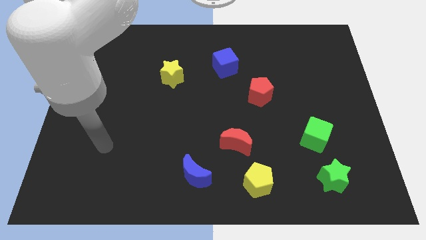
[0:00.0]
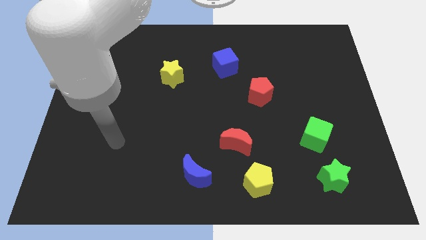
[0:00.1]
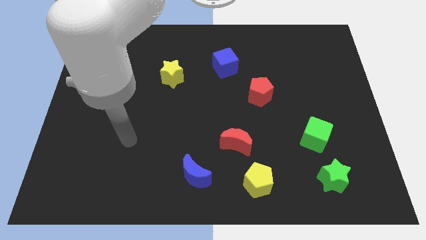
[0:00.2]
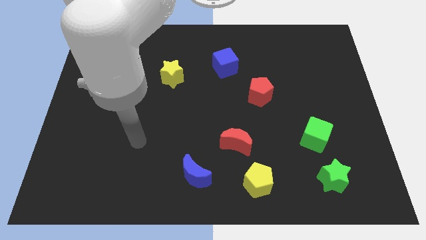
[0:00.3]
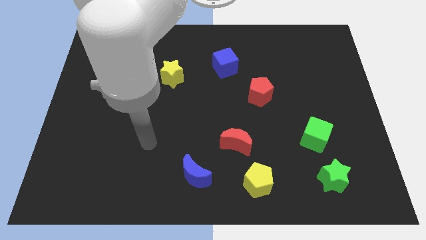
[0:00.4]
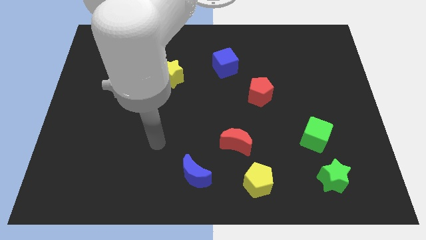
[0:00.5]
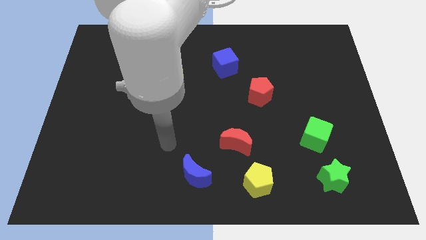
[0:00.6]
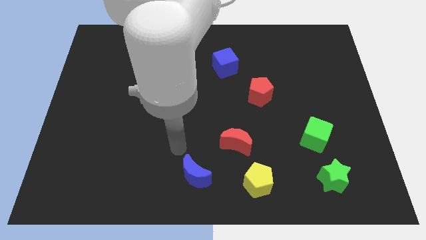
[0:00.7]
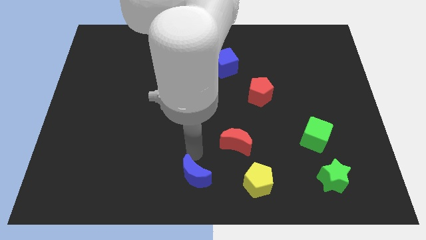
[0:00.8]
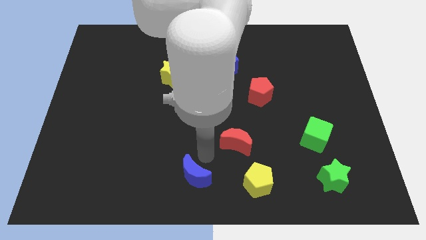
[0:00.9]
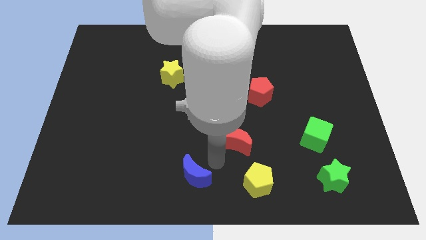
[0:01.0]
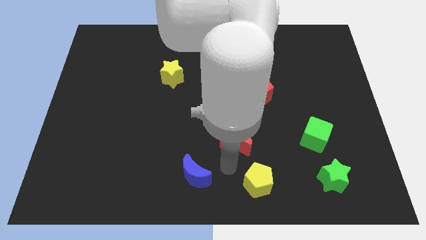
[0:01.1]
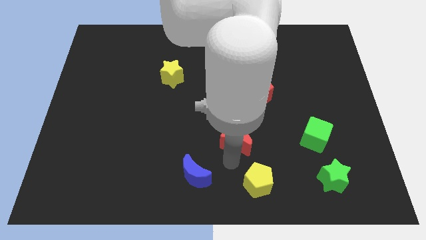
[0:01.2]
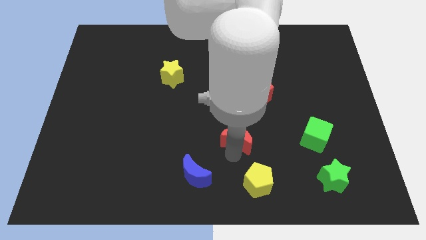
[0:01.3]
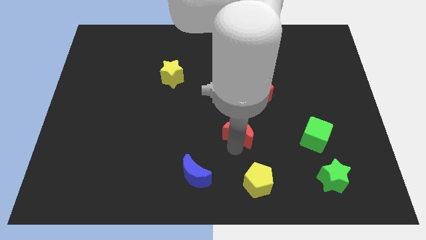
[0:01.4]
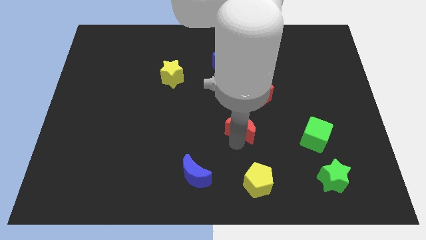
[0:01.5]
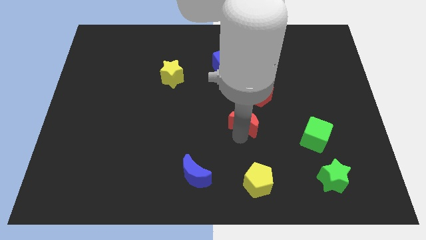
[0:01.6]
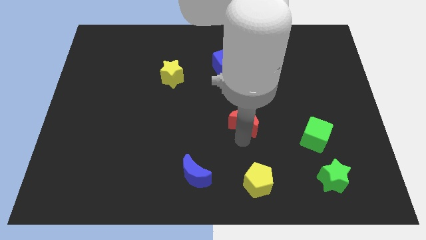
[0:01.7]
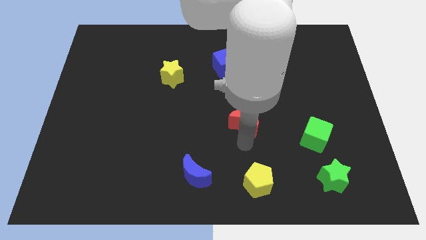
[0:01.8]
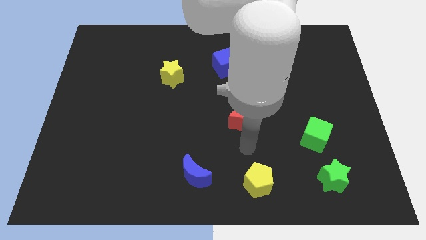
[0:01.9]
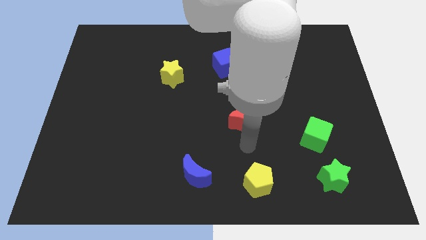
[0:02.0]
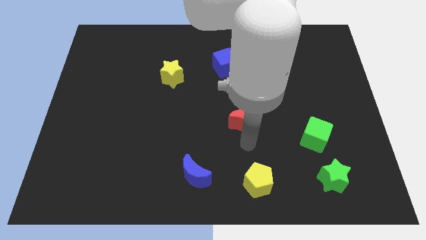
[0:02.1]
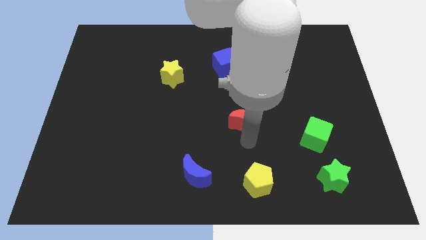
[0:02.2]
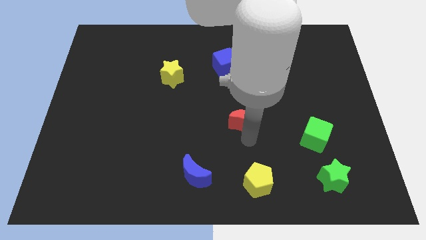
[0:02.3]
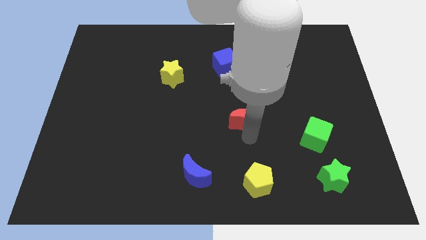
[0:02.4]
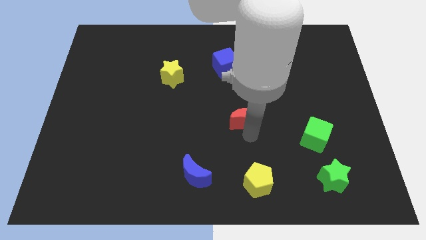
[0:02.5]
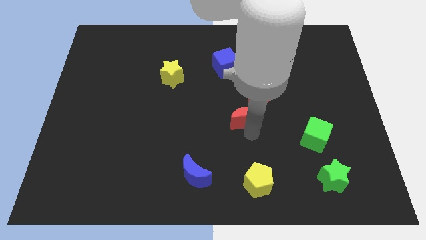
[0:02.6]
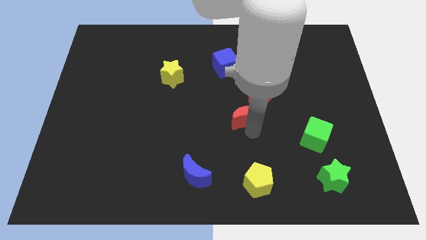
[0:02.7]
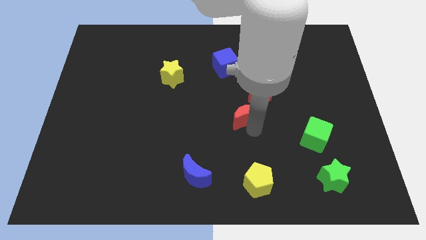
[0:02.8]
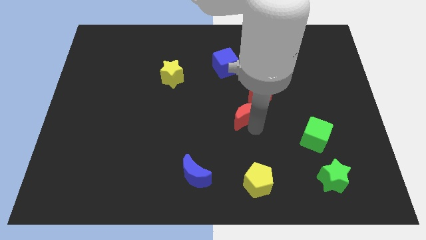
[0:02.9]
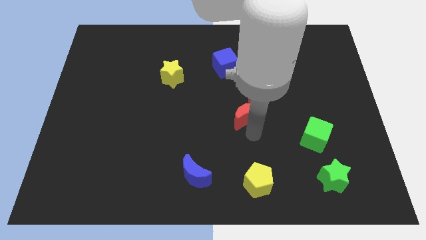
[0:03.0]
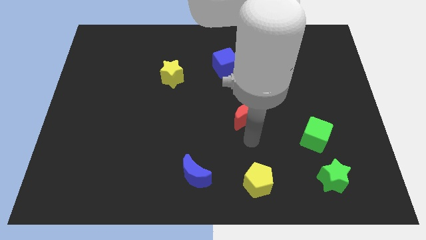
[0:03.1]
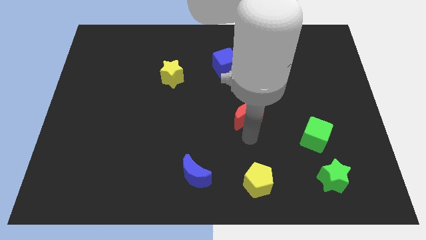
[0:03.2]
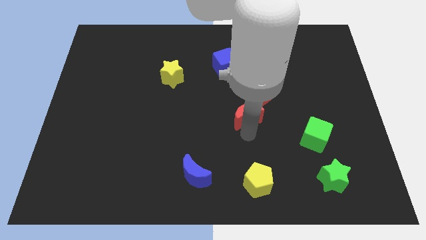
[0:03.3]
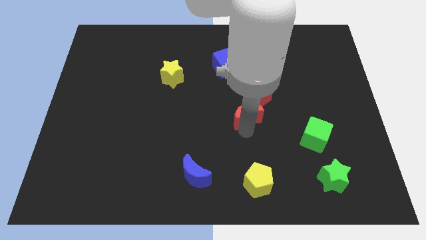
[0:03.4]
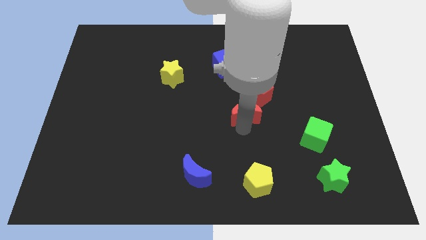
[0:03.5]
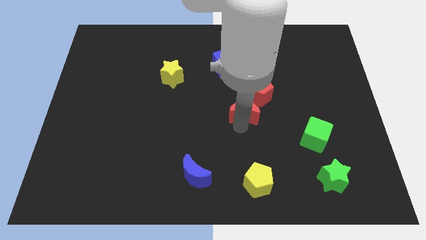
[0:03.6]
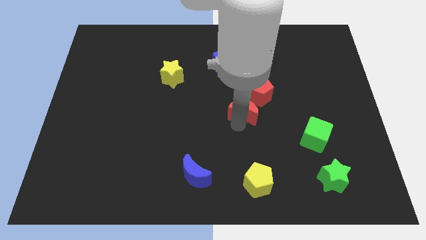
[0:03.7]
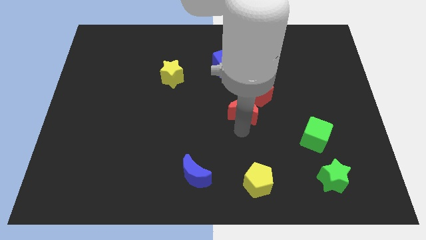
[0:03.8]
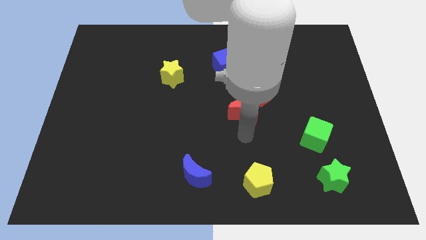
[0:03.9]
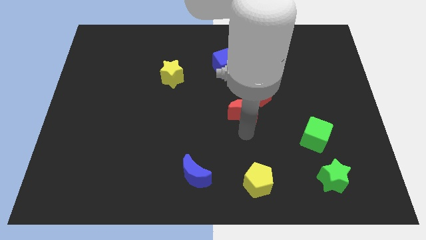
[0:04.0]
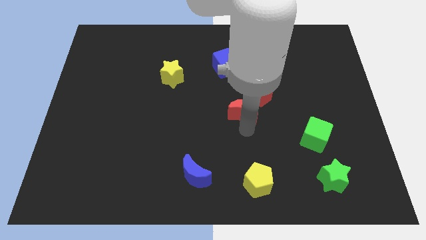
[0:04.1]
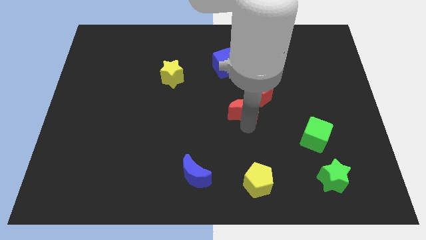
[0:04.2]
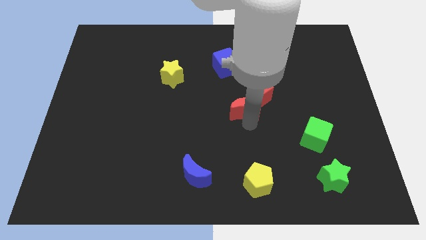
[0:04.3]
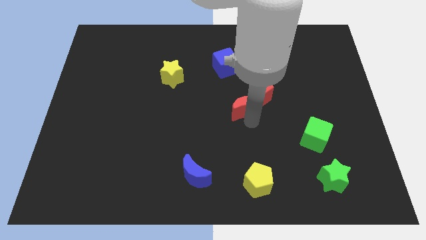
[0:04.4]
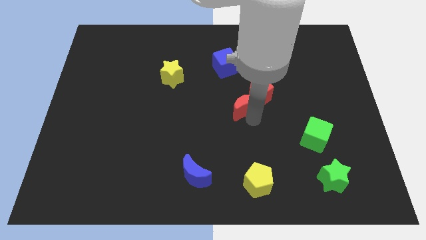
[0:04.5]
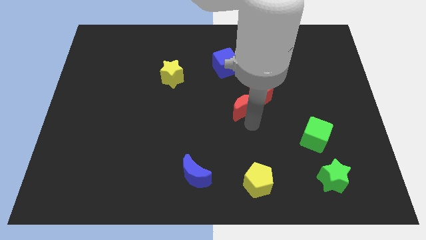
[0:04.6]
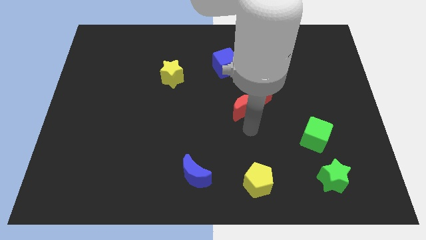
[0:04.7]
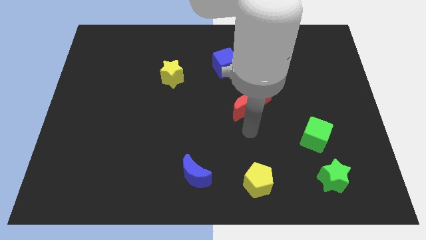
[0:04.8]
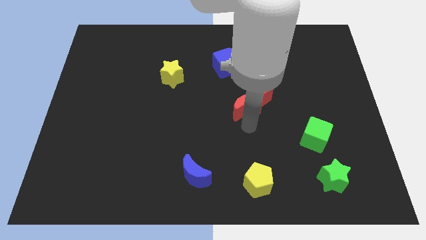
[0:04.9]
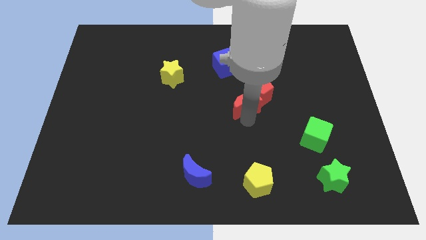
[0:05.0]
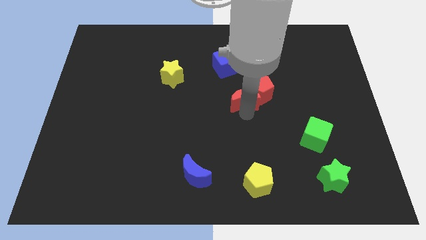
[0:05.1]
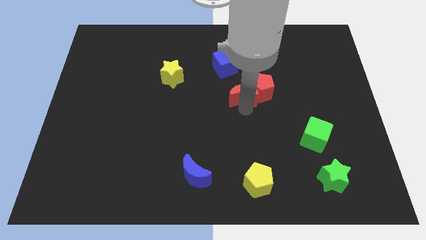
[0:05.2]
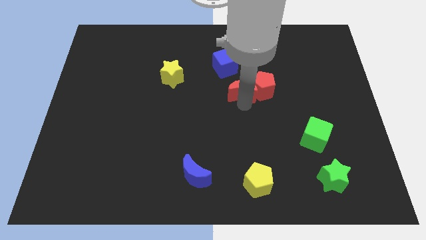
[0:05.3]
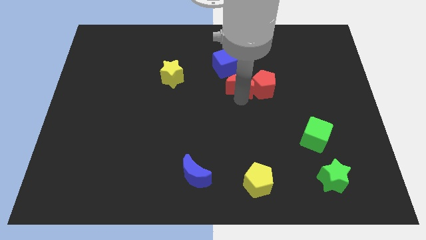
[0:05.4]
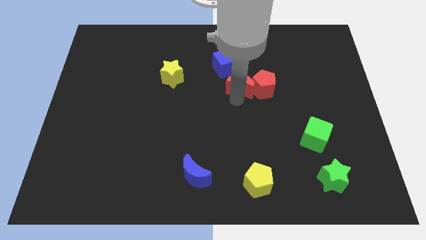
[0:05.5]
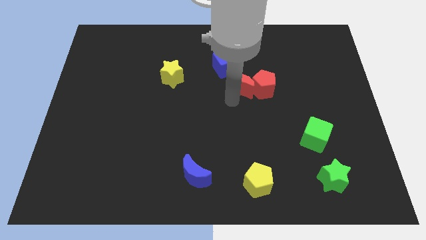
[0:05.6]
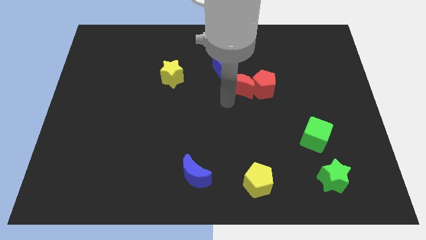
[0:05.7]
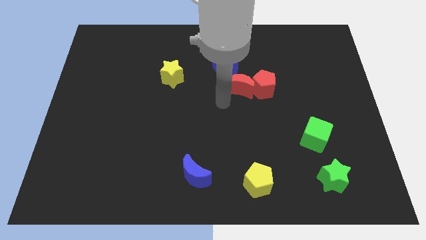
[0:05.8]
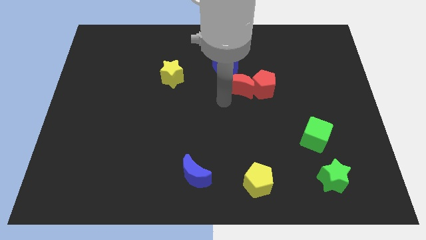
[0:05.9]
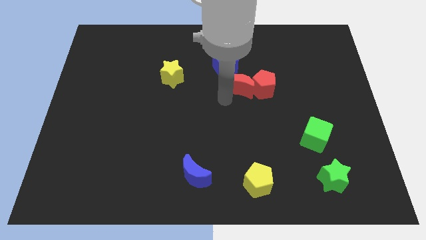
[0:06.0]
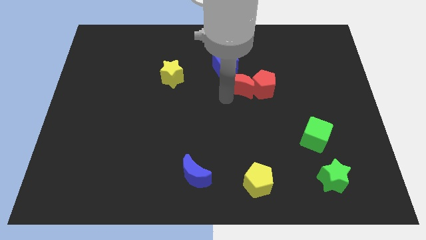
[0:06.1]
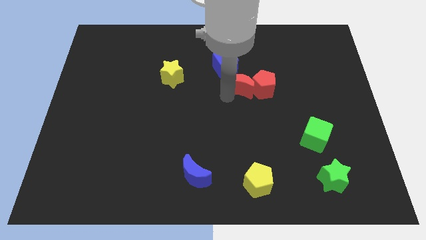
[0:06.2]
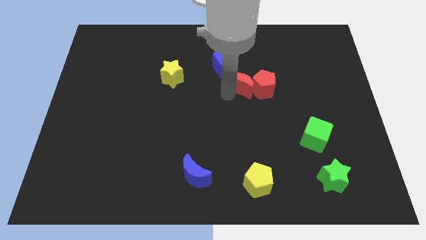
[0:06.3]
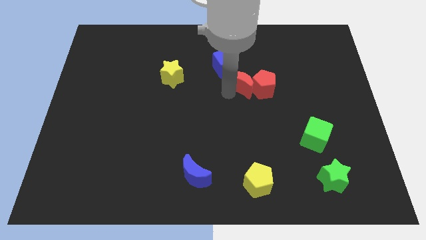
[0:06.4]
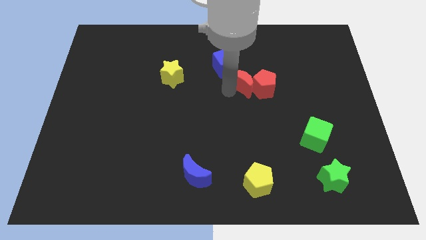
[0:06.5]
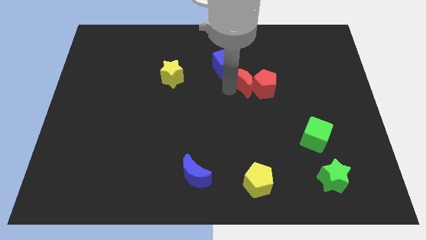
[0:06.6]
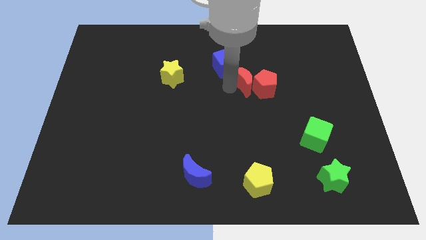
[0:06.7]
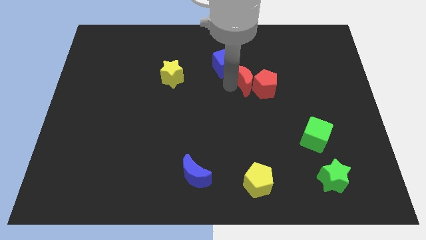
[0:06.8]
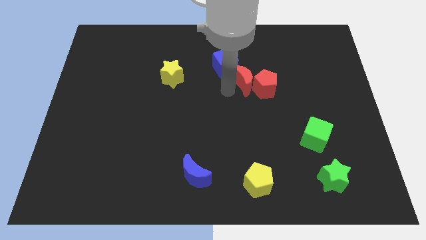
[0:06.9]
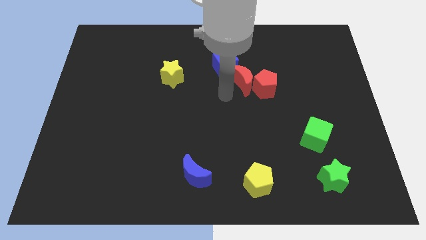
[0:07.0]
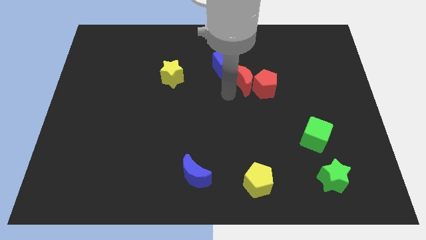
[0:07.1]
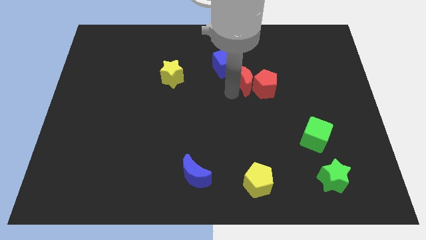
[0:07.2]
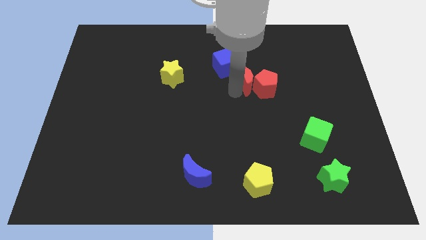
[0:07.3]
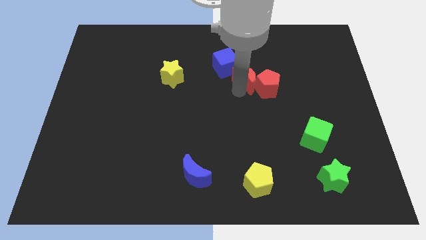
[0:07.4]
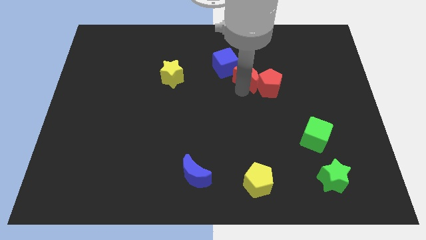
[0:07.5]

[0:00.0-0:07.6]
push the red moon right of the blue cube
